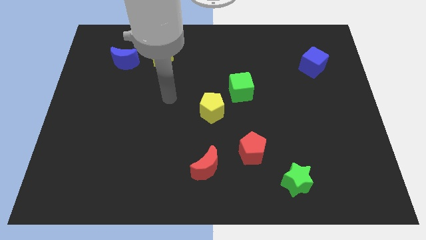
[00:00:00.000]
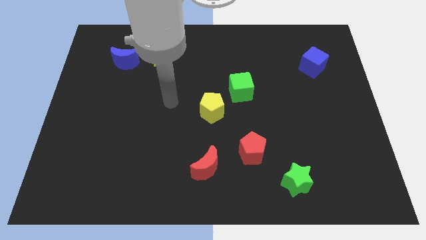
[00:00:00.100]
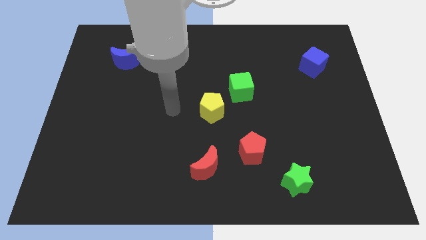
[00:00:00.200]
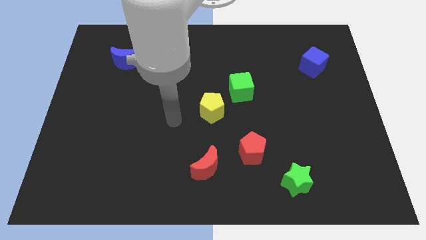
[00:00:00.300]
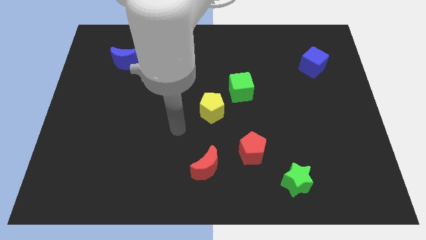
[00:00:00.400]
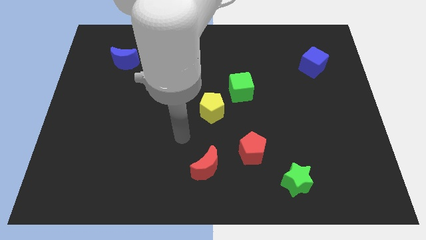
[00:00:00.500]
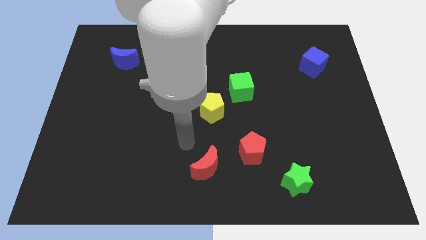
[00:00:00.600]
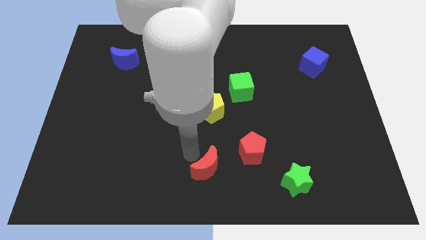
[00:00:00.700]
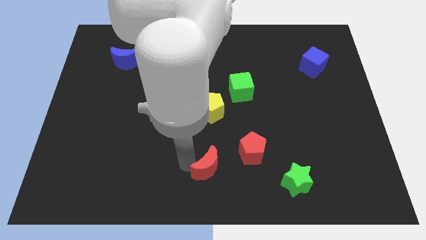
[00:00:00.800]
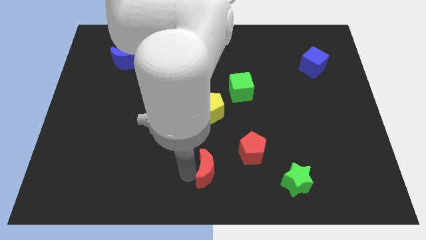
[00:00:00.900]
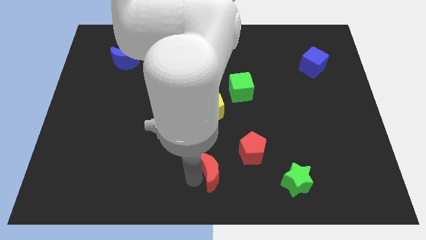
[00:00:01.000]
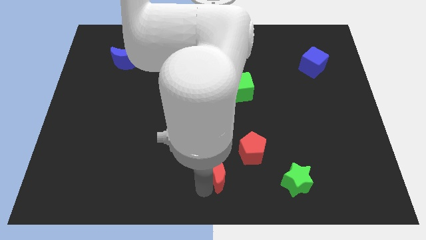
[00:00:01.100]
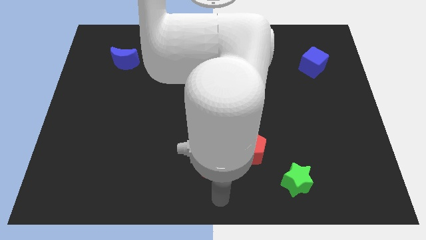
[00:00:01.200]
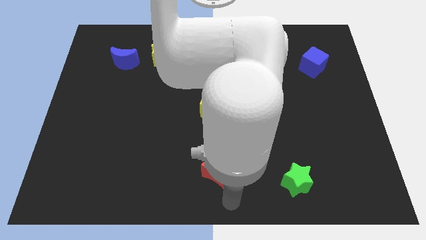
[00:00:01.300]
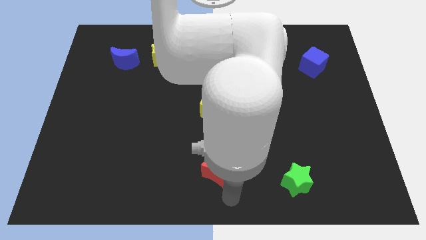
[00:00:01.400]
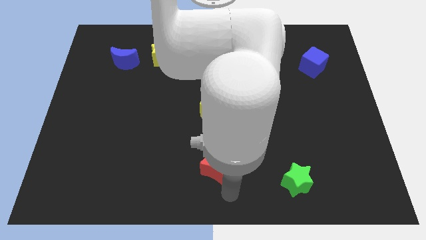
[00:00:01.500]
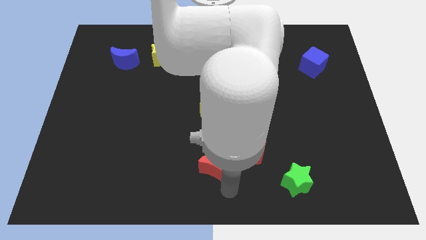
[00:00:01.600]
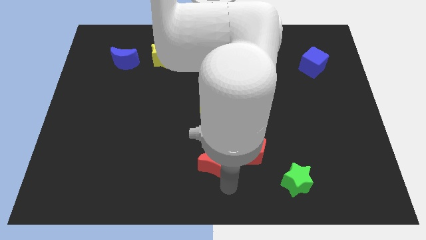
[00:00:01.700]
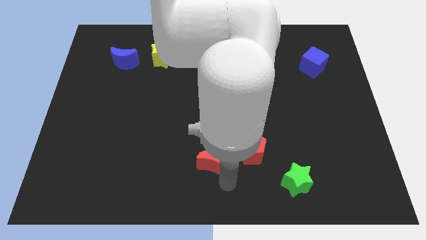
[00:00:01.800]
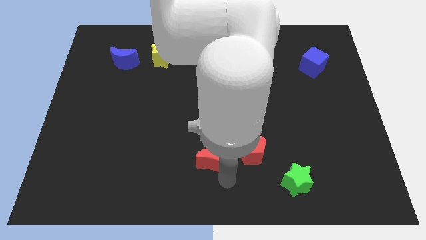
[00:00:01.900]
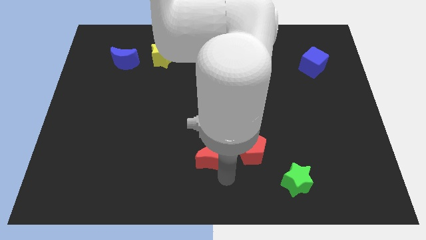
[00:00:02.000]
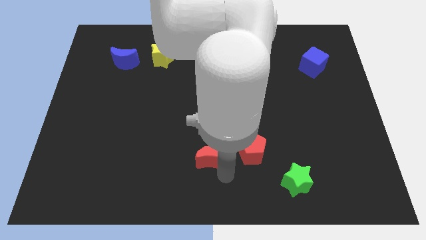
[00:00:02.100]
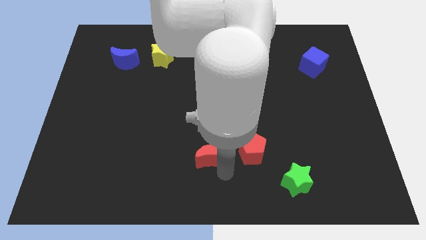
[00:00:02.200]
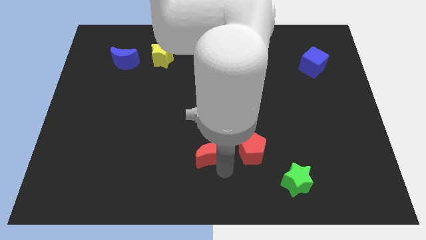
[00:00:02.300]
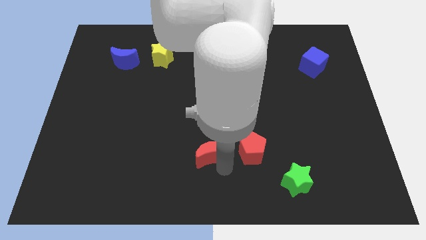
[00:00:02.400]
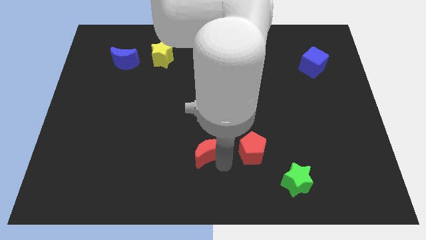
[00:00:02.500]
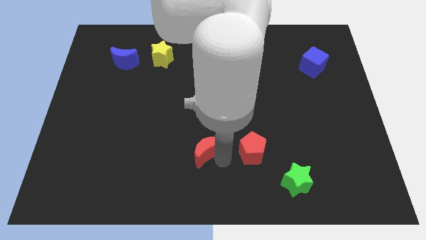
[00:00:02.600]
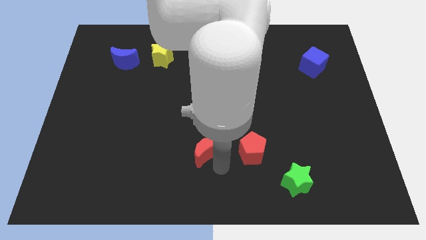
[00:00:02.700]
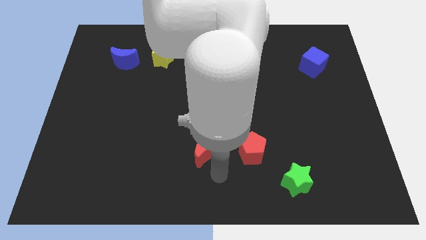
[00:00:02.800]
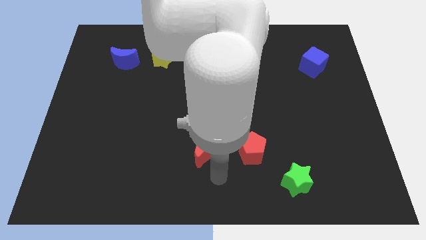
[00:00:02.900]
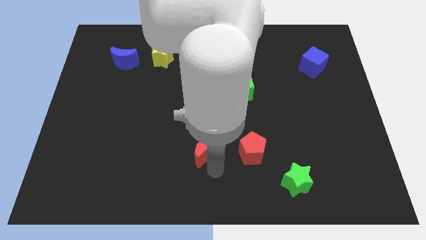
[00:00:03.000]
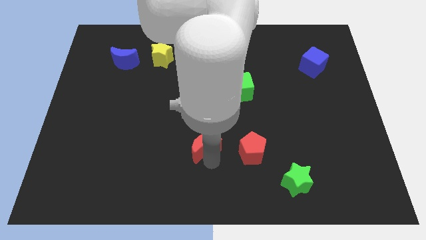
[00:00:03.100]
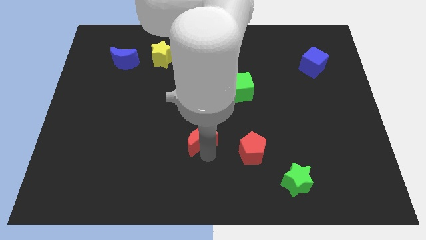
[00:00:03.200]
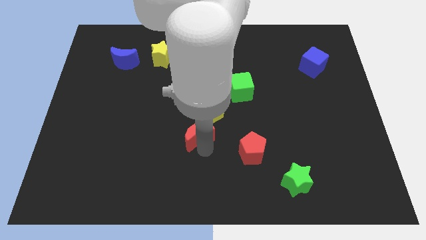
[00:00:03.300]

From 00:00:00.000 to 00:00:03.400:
push the red moon a bit upwards

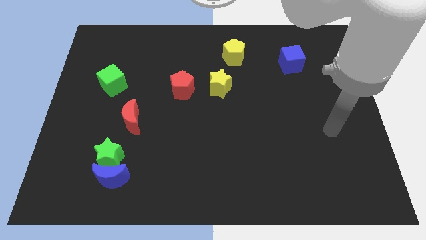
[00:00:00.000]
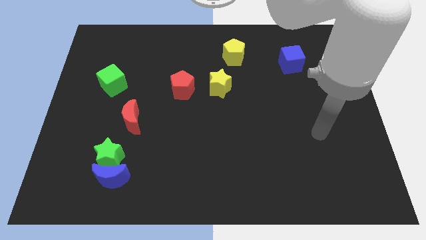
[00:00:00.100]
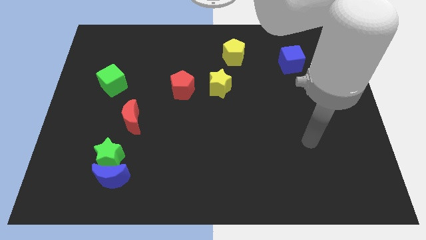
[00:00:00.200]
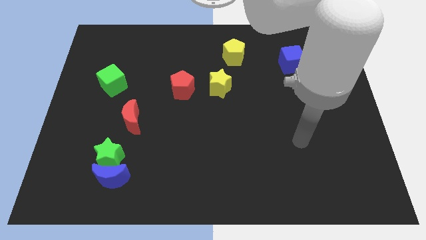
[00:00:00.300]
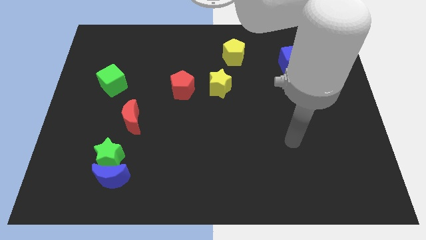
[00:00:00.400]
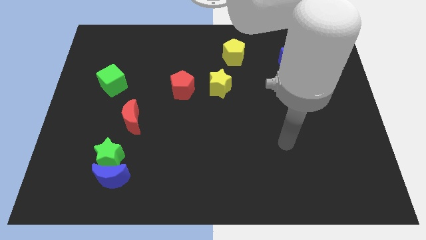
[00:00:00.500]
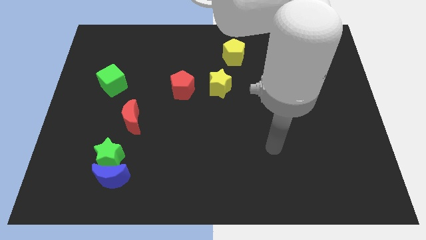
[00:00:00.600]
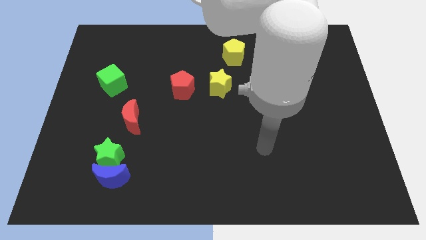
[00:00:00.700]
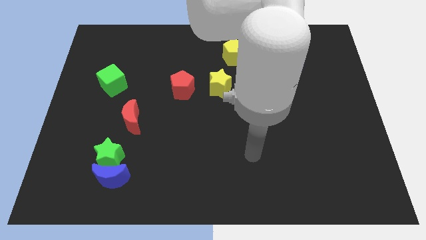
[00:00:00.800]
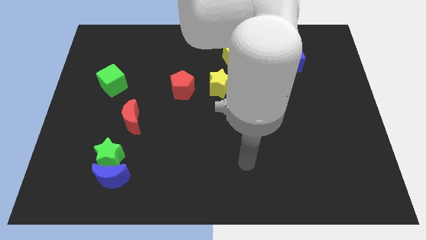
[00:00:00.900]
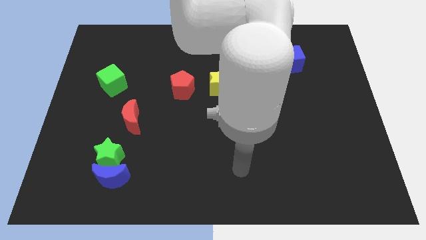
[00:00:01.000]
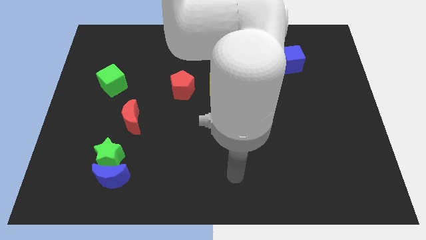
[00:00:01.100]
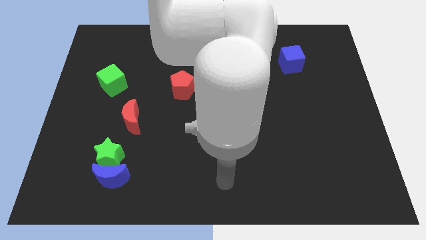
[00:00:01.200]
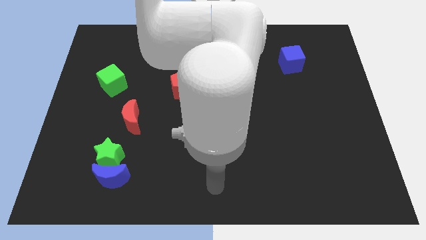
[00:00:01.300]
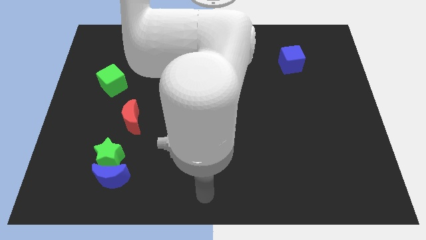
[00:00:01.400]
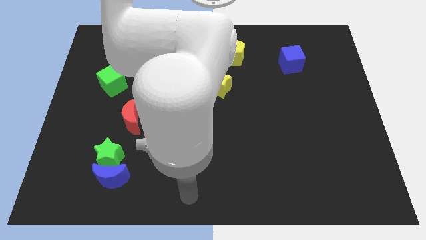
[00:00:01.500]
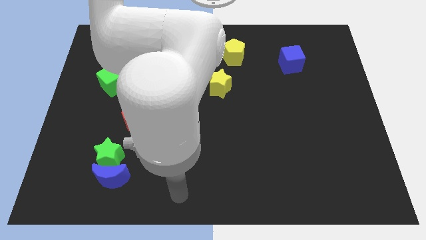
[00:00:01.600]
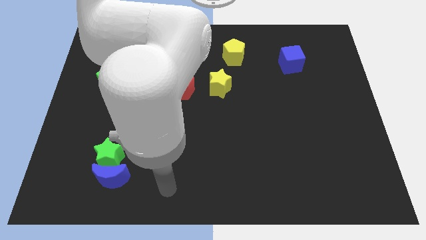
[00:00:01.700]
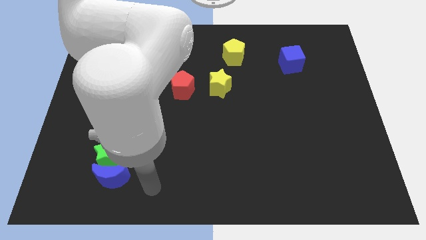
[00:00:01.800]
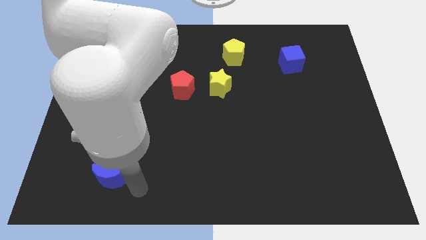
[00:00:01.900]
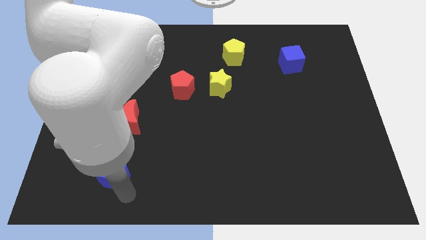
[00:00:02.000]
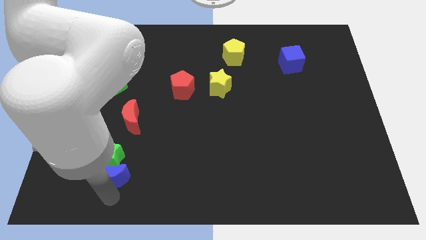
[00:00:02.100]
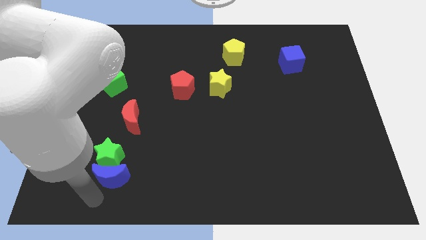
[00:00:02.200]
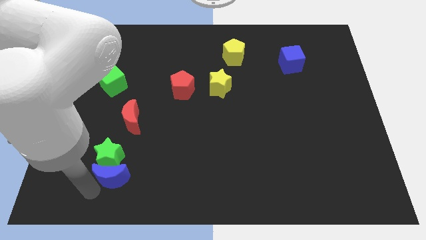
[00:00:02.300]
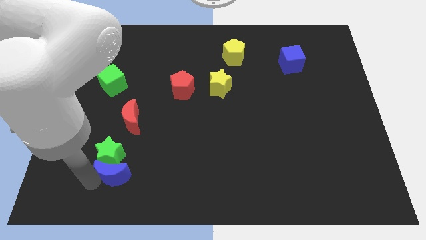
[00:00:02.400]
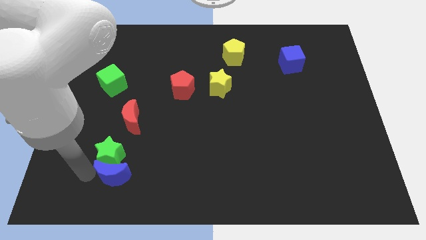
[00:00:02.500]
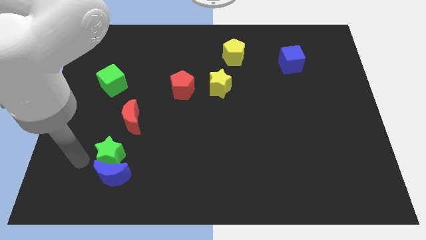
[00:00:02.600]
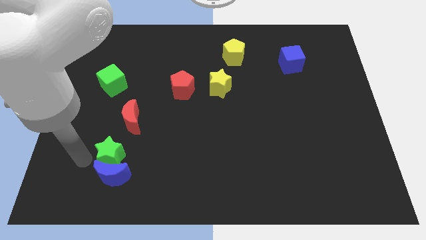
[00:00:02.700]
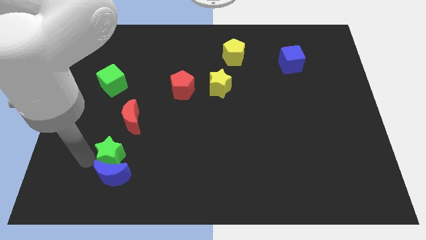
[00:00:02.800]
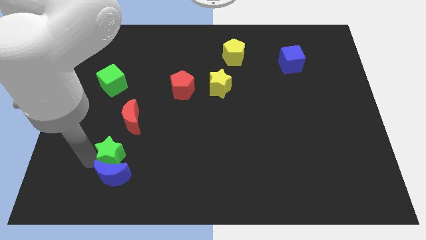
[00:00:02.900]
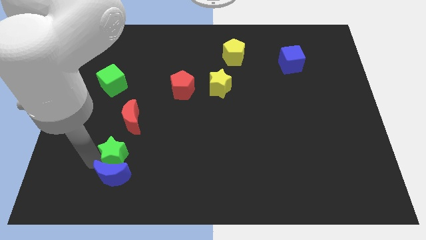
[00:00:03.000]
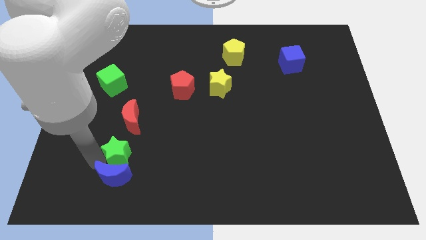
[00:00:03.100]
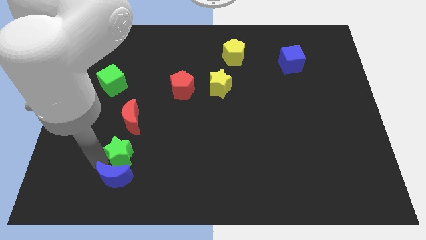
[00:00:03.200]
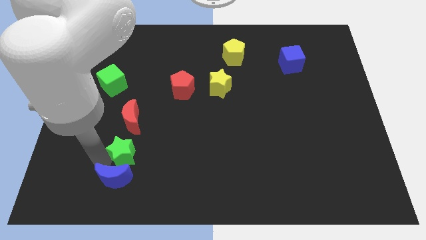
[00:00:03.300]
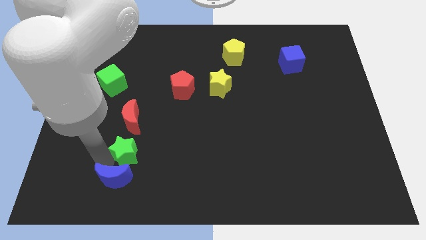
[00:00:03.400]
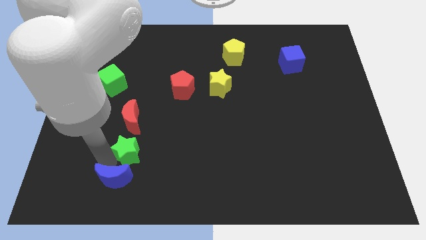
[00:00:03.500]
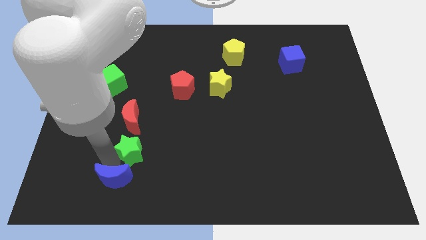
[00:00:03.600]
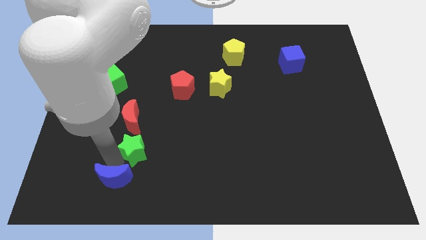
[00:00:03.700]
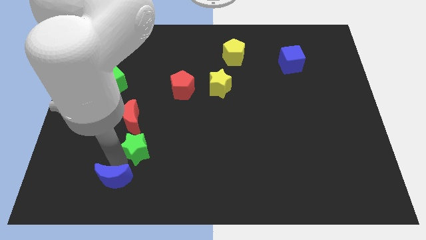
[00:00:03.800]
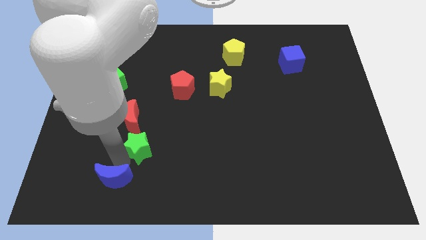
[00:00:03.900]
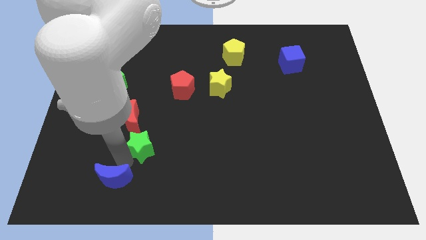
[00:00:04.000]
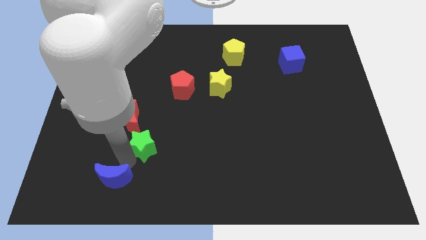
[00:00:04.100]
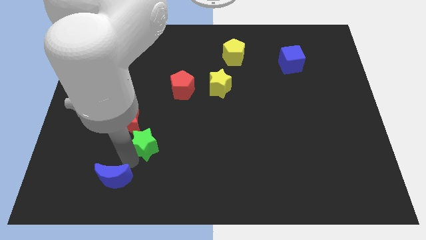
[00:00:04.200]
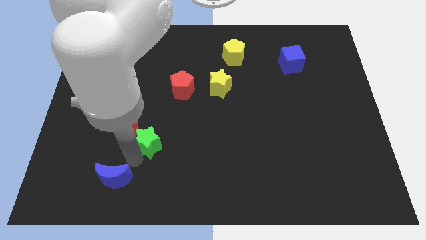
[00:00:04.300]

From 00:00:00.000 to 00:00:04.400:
push the green star somewhat diagonally upwards and right

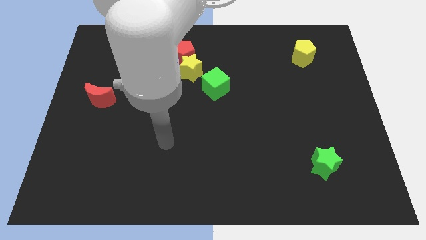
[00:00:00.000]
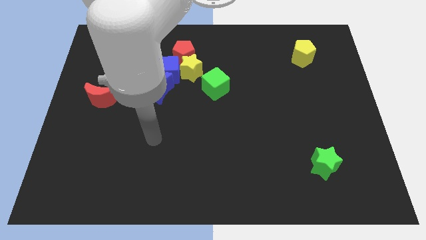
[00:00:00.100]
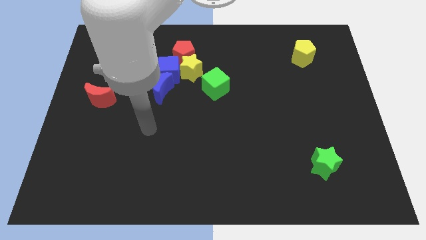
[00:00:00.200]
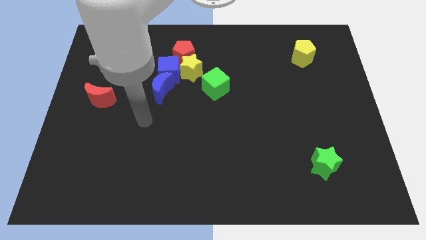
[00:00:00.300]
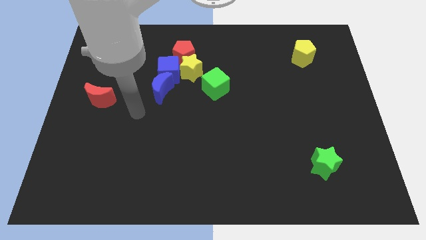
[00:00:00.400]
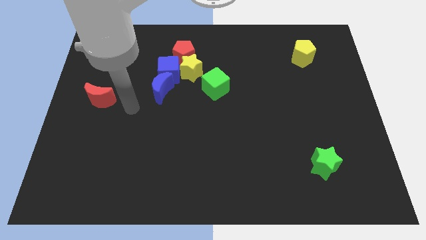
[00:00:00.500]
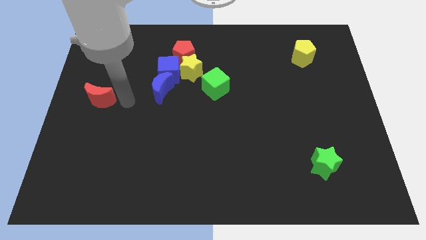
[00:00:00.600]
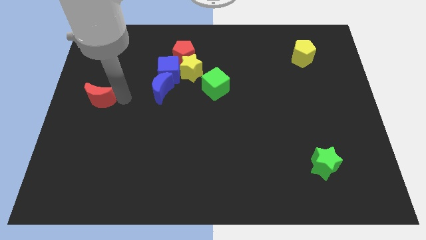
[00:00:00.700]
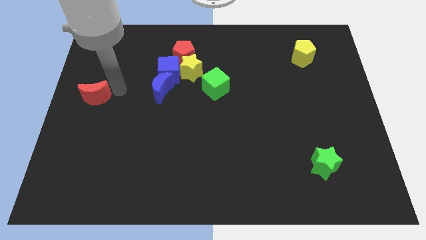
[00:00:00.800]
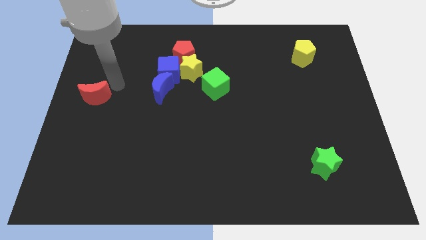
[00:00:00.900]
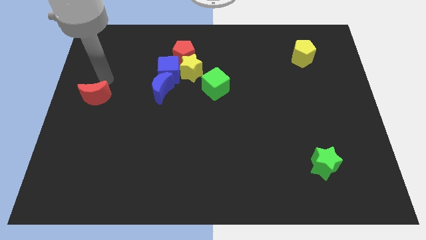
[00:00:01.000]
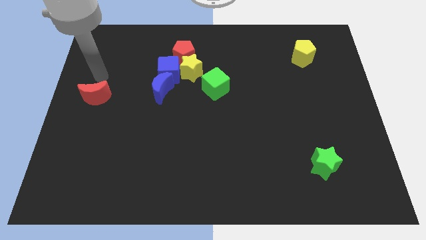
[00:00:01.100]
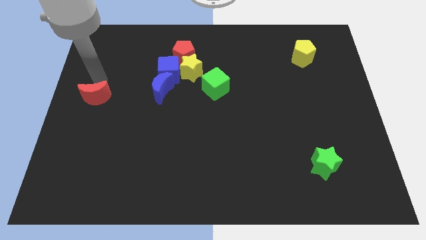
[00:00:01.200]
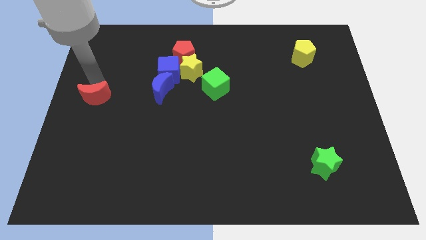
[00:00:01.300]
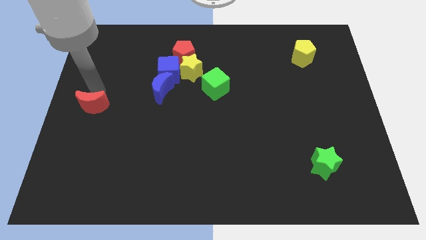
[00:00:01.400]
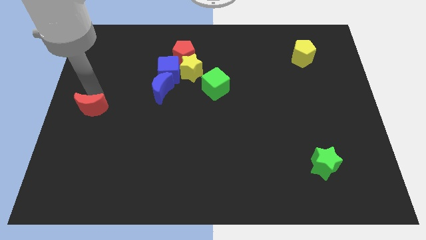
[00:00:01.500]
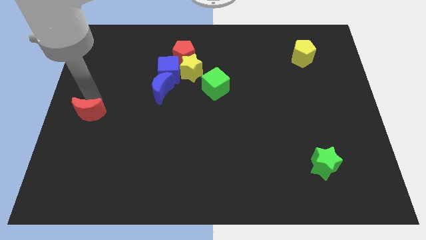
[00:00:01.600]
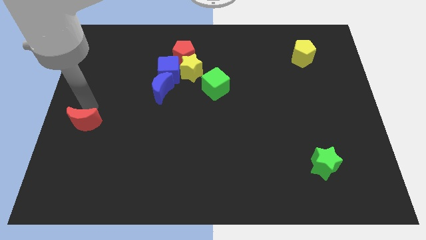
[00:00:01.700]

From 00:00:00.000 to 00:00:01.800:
slightly slide the red moon down
